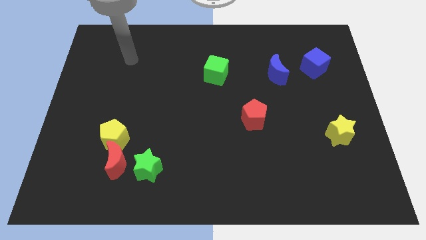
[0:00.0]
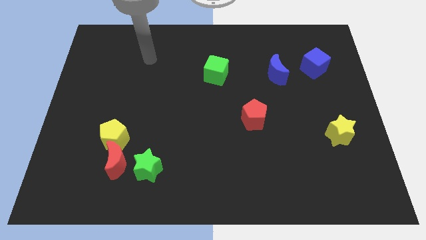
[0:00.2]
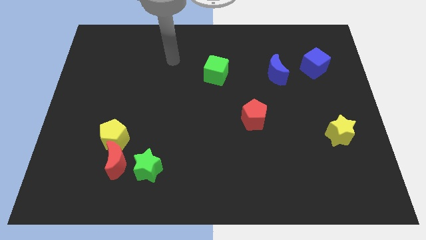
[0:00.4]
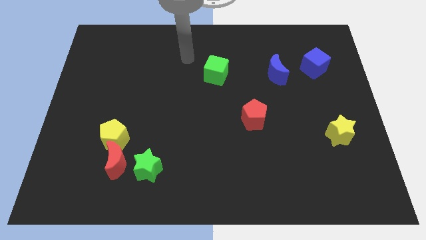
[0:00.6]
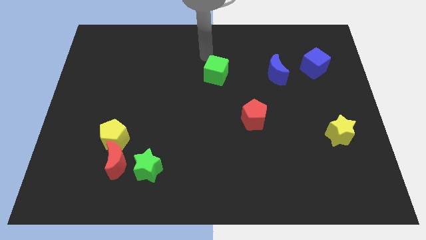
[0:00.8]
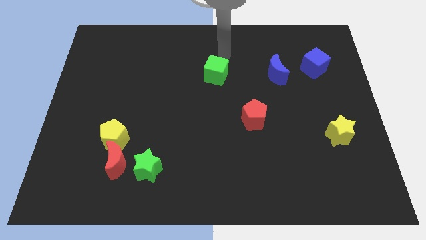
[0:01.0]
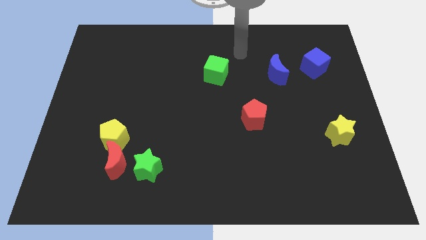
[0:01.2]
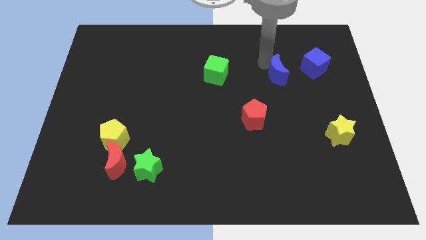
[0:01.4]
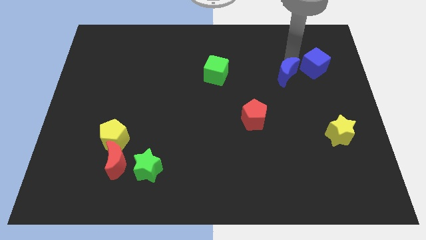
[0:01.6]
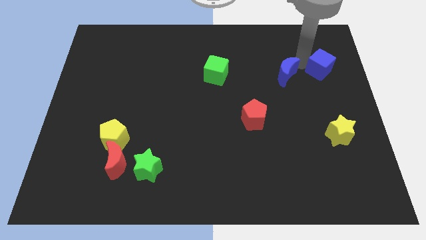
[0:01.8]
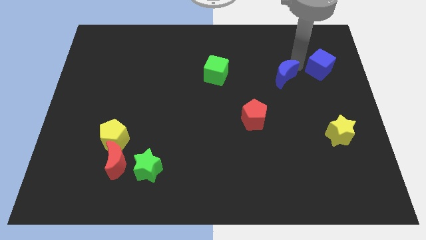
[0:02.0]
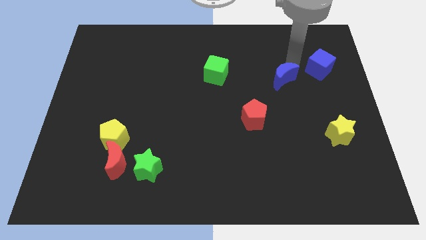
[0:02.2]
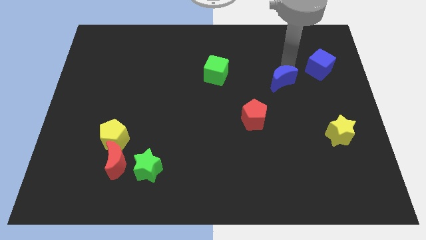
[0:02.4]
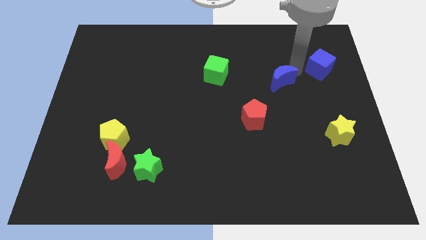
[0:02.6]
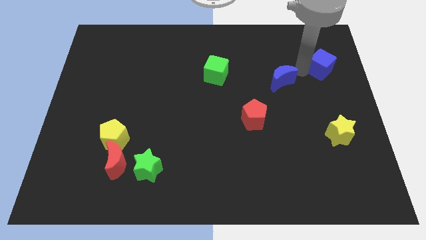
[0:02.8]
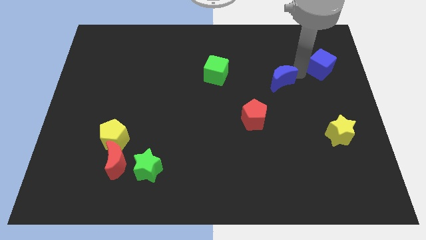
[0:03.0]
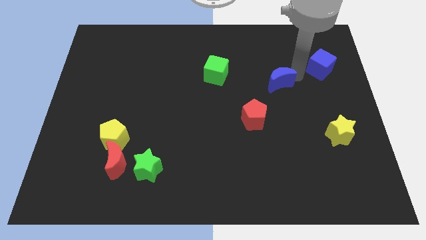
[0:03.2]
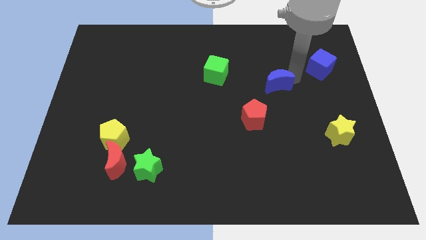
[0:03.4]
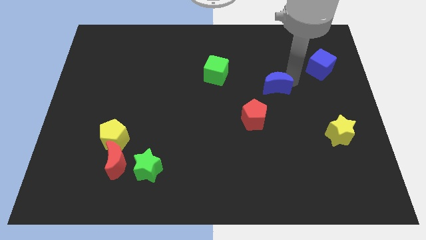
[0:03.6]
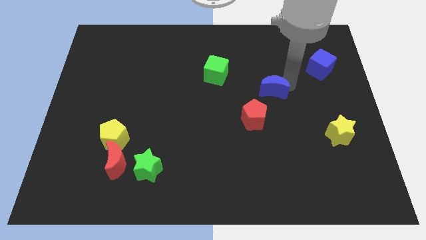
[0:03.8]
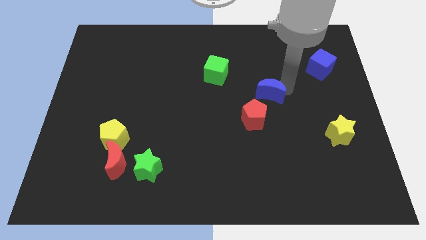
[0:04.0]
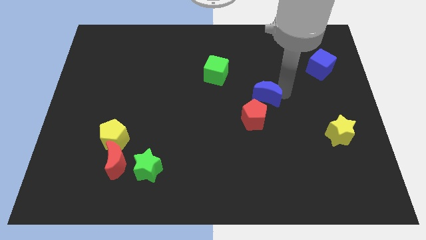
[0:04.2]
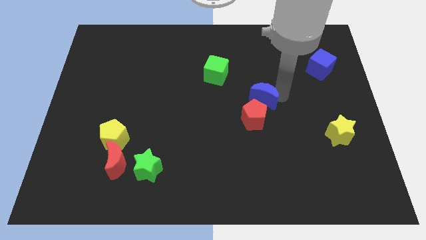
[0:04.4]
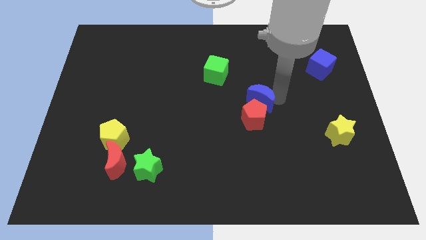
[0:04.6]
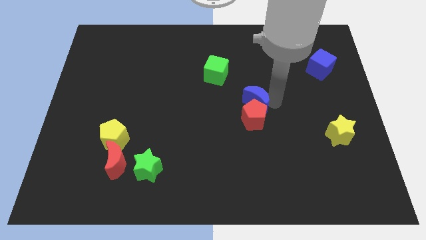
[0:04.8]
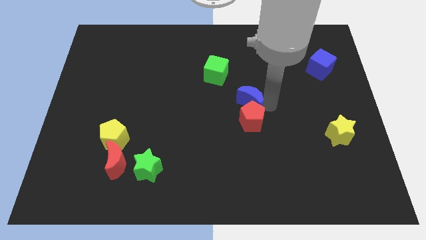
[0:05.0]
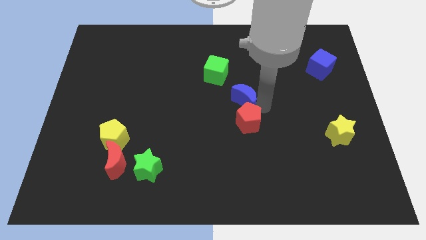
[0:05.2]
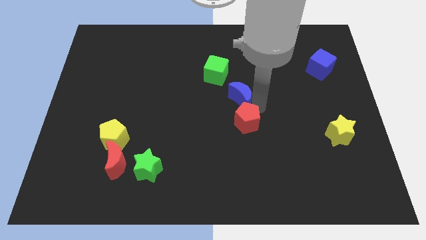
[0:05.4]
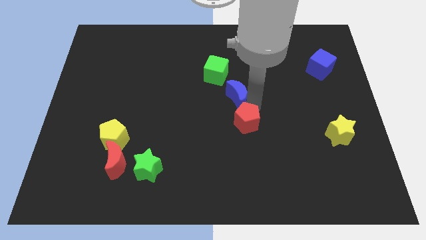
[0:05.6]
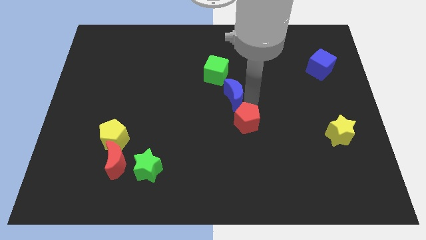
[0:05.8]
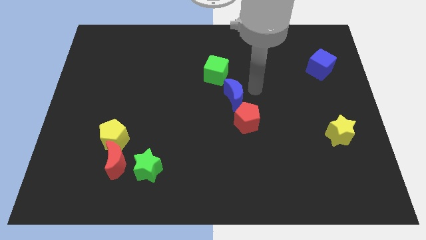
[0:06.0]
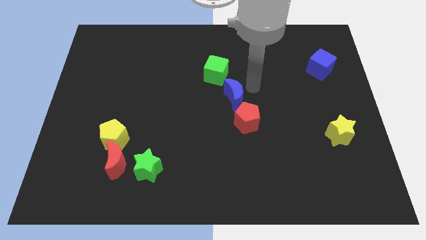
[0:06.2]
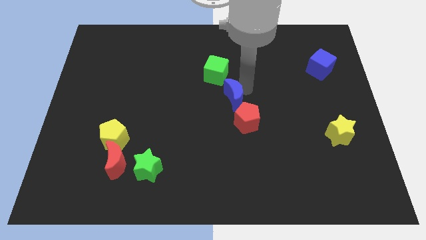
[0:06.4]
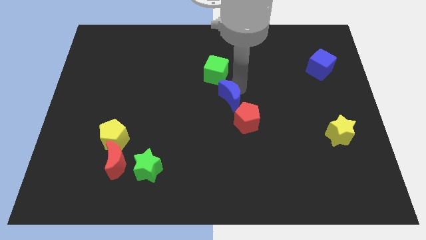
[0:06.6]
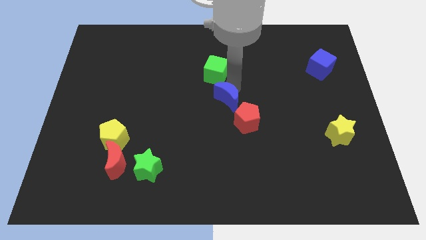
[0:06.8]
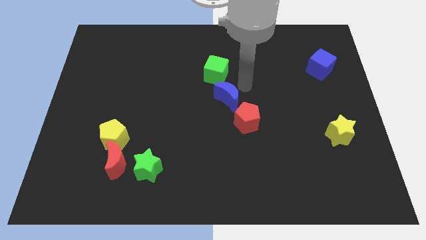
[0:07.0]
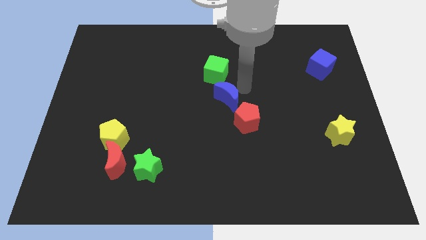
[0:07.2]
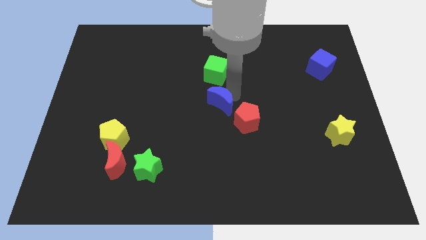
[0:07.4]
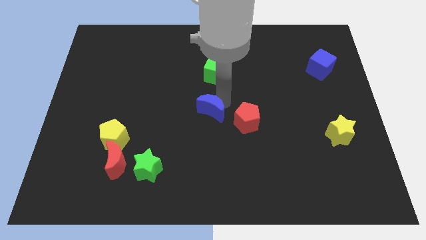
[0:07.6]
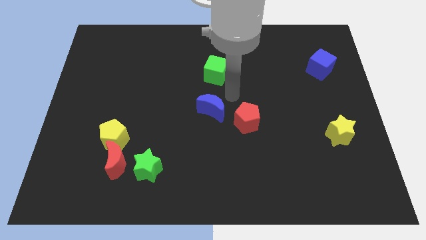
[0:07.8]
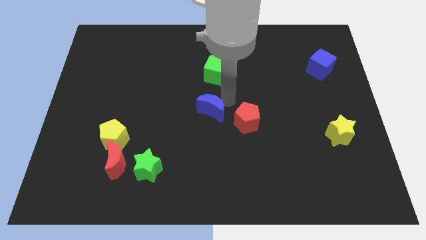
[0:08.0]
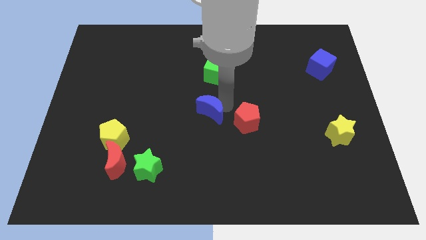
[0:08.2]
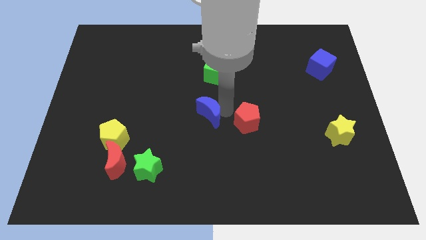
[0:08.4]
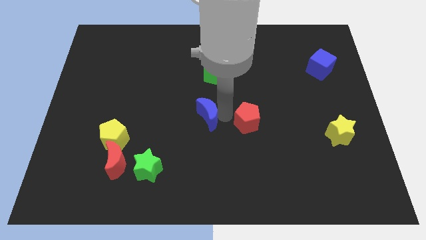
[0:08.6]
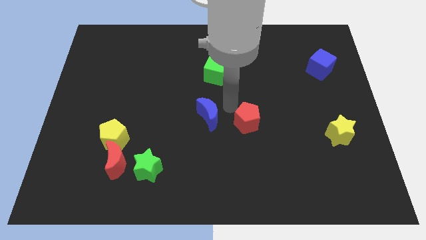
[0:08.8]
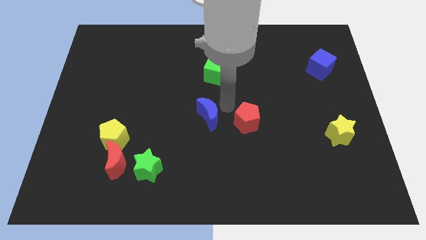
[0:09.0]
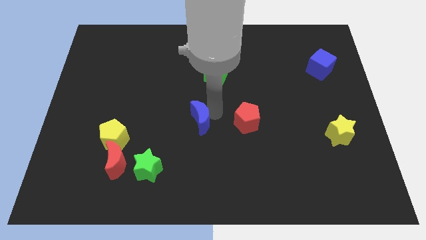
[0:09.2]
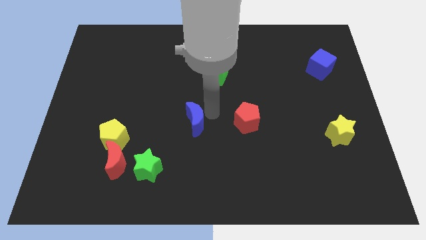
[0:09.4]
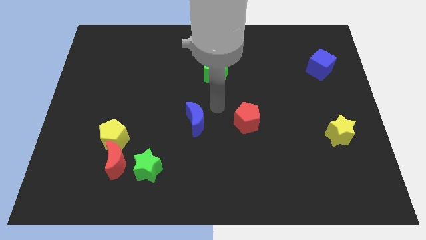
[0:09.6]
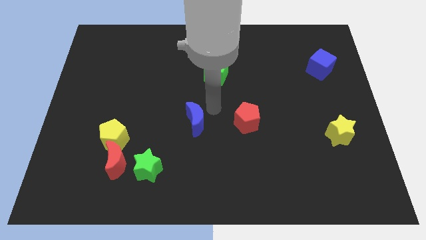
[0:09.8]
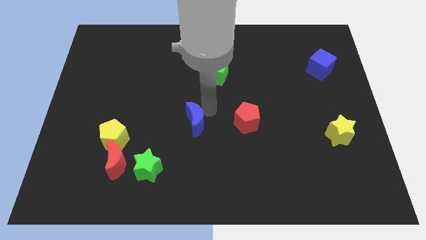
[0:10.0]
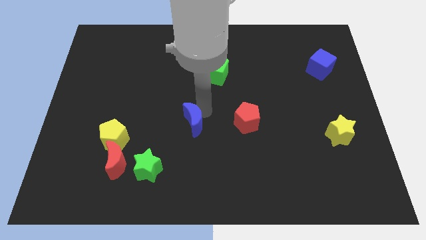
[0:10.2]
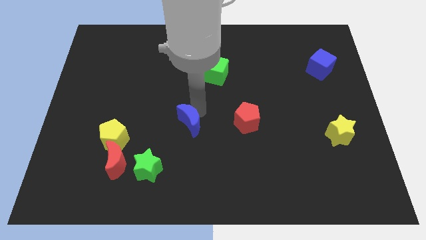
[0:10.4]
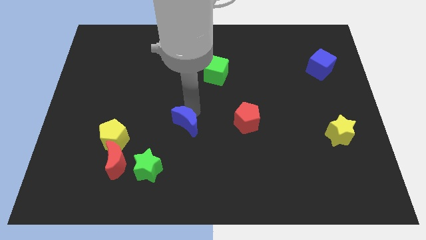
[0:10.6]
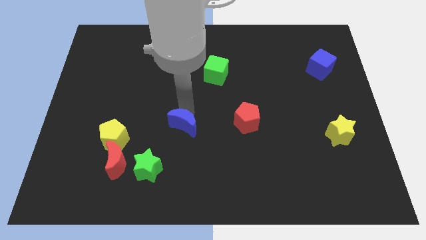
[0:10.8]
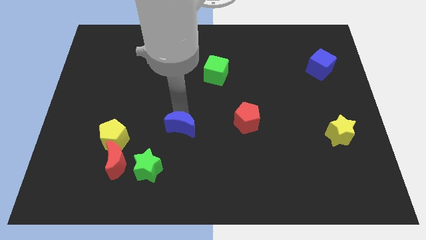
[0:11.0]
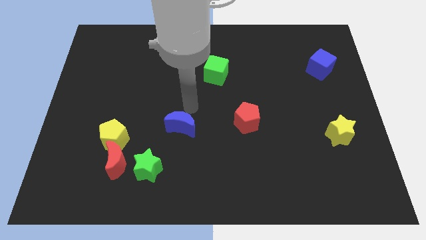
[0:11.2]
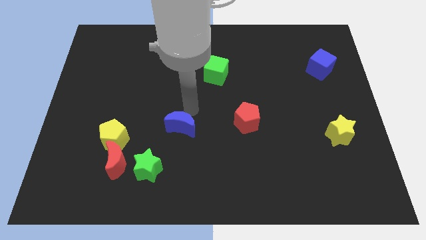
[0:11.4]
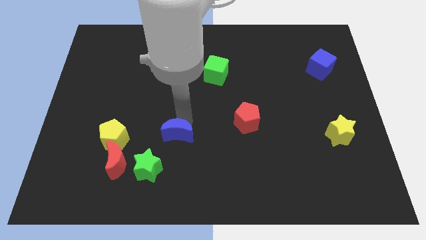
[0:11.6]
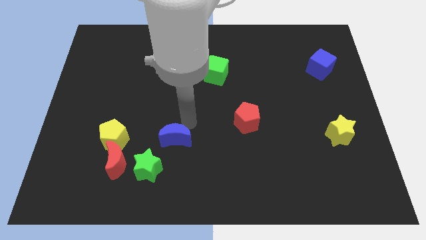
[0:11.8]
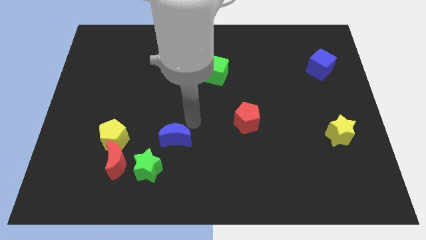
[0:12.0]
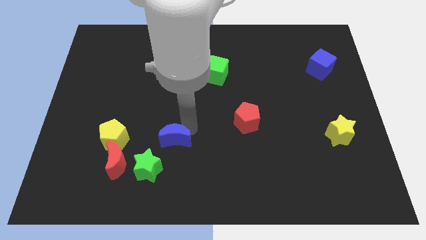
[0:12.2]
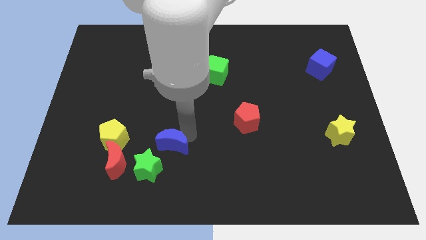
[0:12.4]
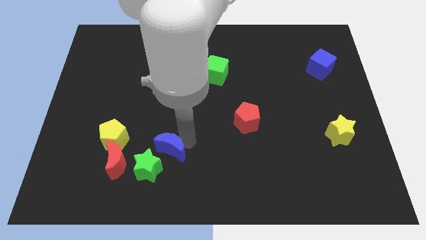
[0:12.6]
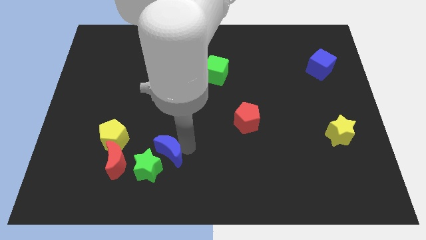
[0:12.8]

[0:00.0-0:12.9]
push the blue moon next to the green star
